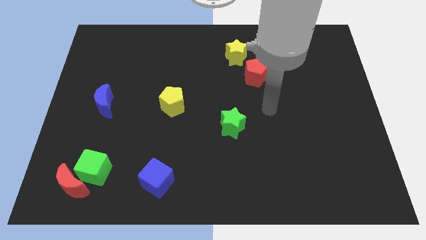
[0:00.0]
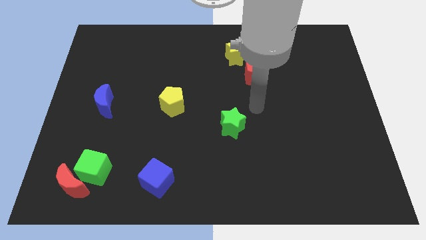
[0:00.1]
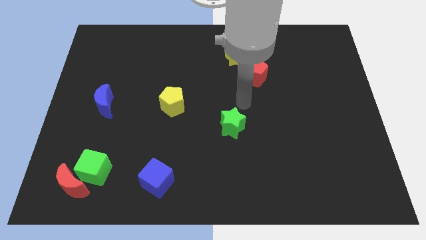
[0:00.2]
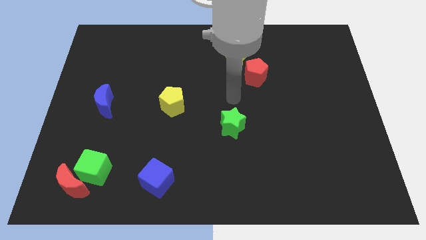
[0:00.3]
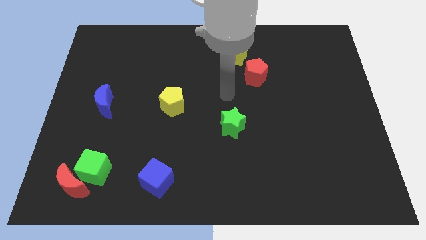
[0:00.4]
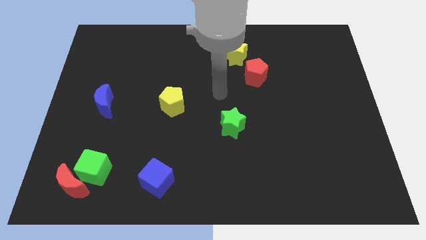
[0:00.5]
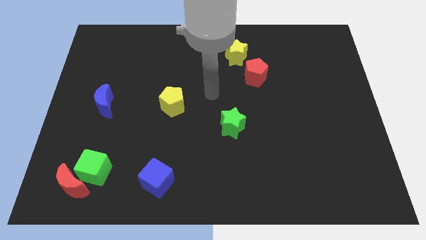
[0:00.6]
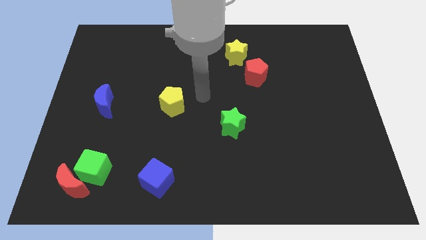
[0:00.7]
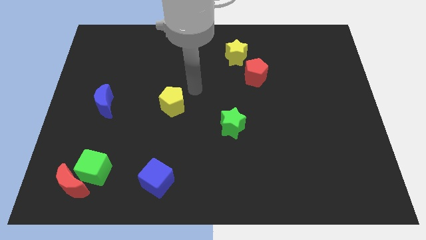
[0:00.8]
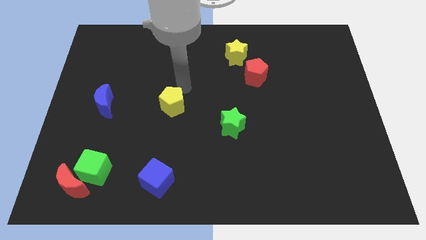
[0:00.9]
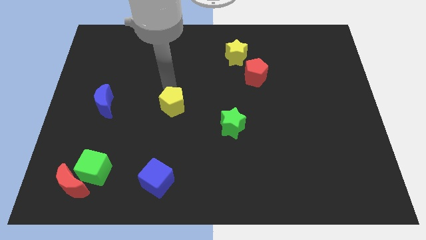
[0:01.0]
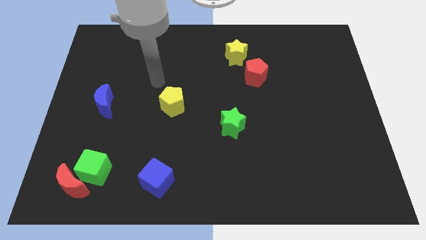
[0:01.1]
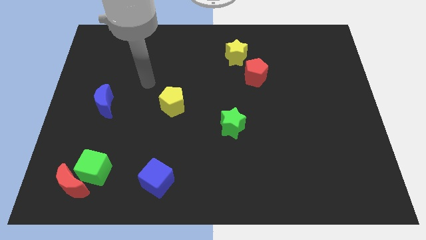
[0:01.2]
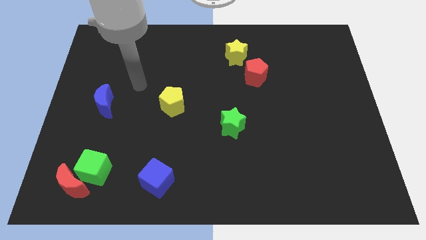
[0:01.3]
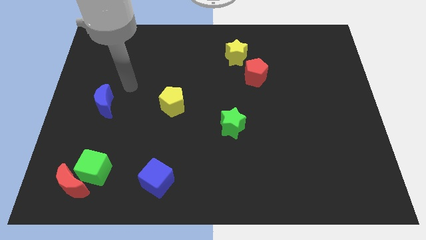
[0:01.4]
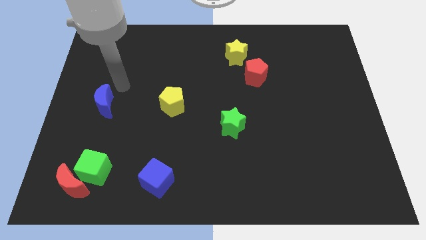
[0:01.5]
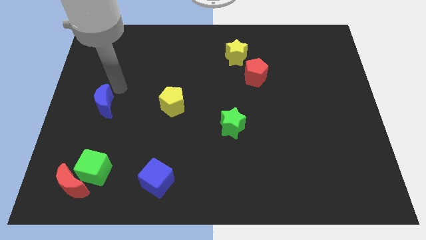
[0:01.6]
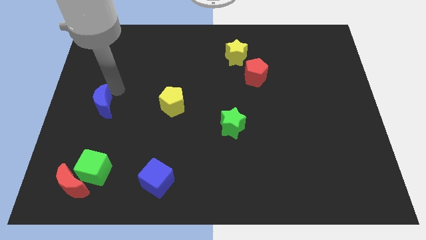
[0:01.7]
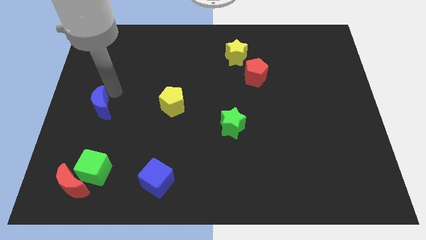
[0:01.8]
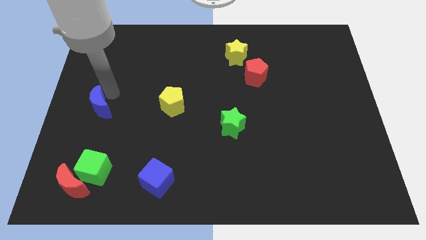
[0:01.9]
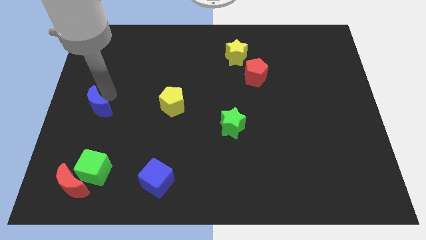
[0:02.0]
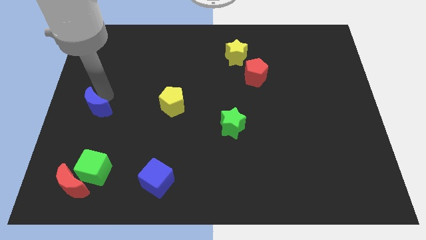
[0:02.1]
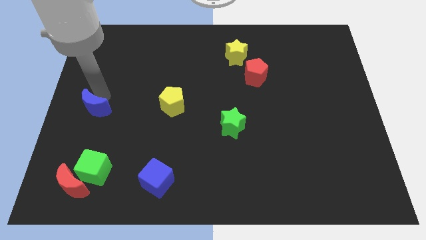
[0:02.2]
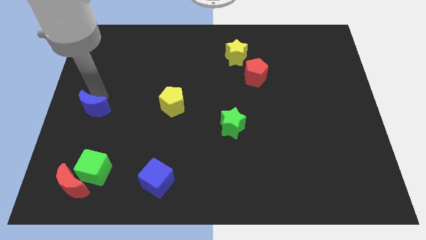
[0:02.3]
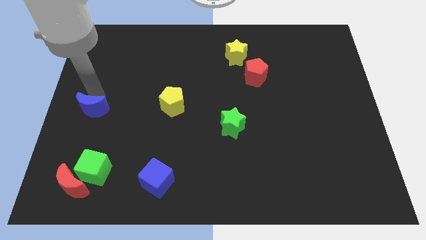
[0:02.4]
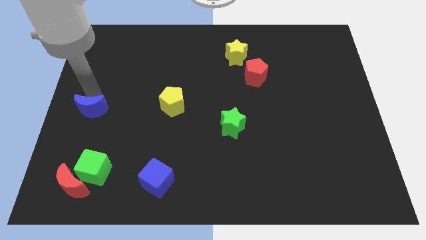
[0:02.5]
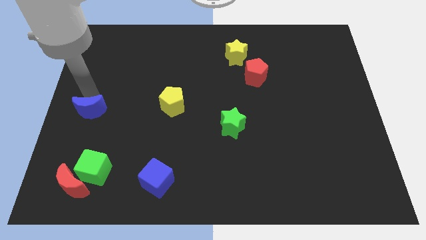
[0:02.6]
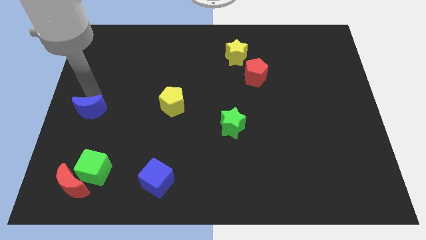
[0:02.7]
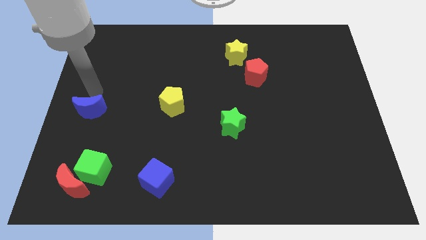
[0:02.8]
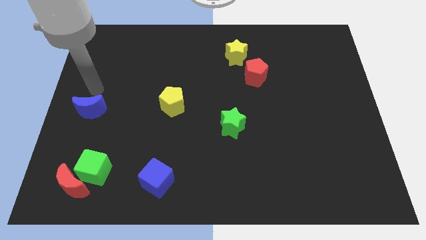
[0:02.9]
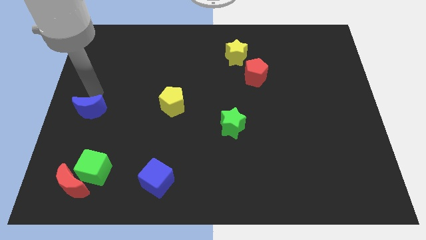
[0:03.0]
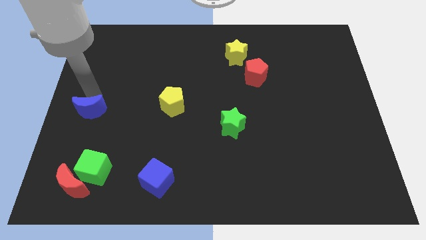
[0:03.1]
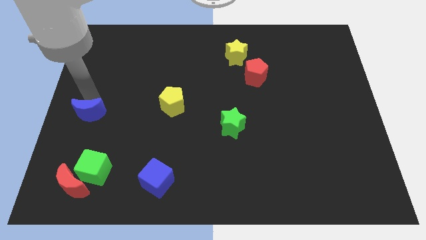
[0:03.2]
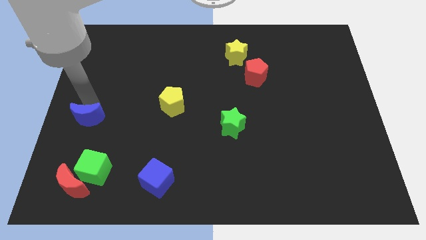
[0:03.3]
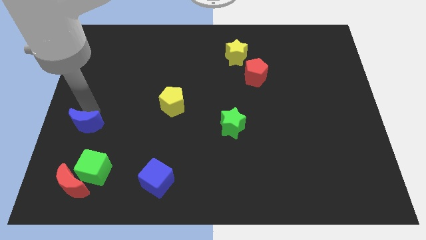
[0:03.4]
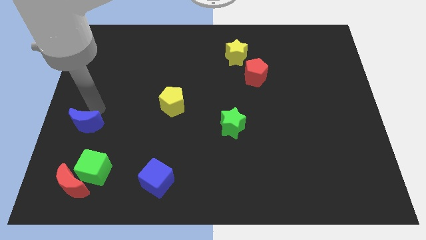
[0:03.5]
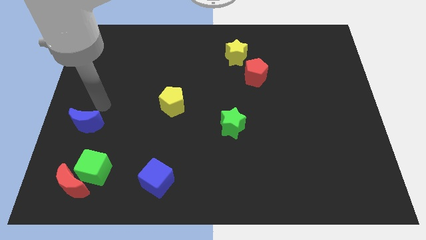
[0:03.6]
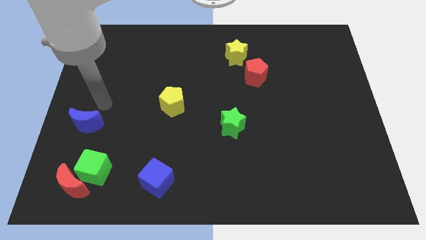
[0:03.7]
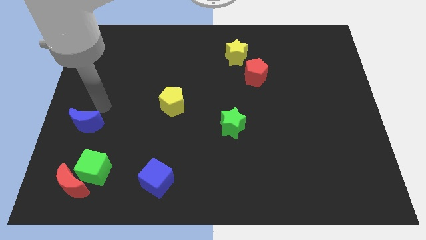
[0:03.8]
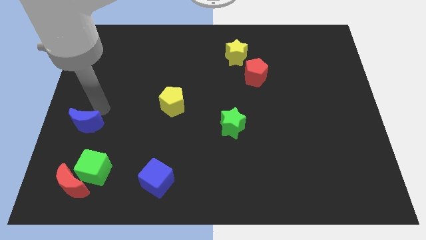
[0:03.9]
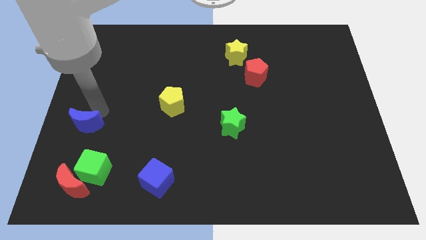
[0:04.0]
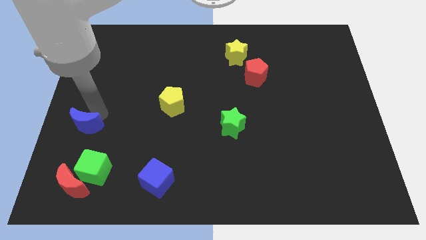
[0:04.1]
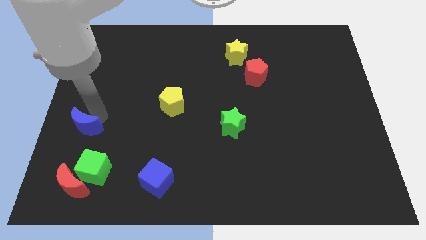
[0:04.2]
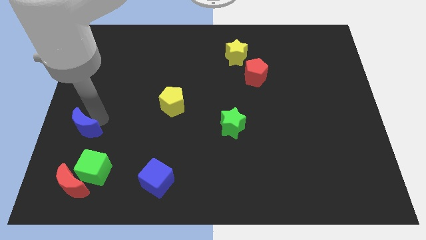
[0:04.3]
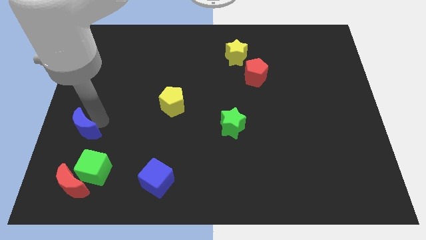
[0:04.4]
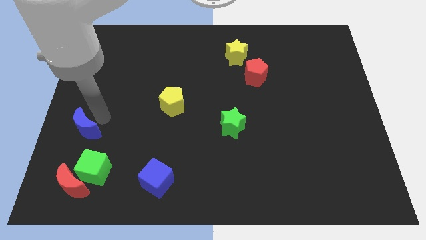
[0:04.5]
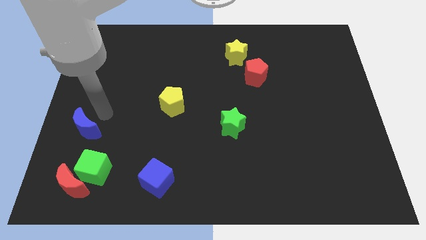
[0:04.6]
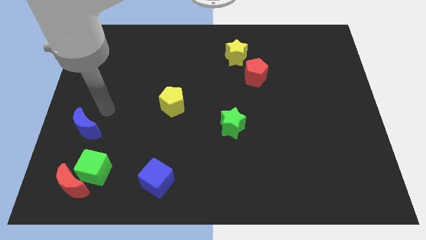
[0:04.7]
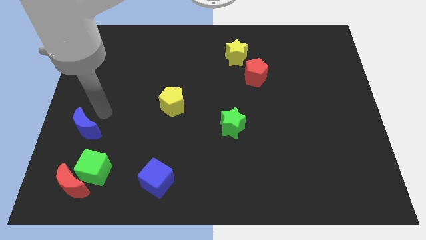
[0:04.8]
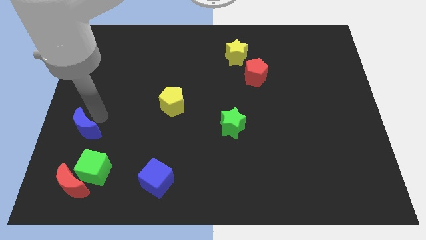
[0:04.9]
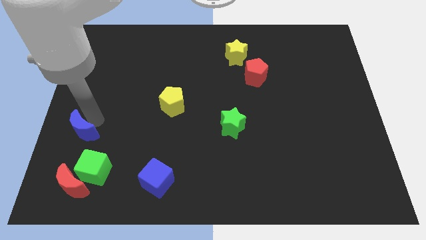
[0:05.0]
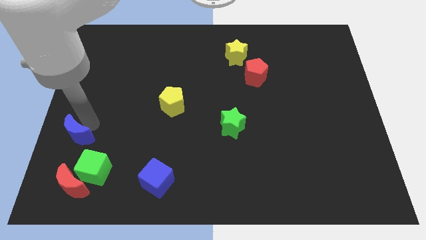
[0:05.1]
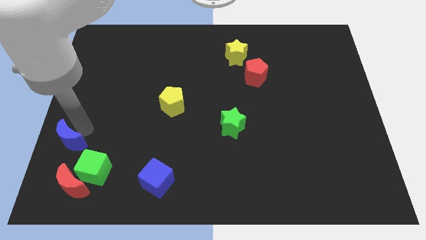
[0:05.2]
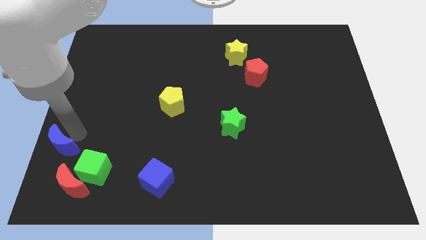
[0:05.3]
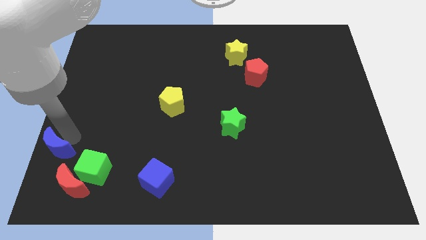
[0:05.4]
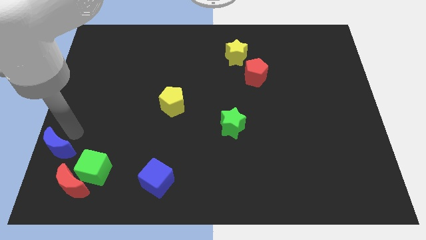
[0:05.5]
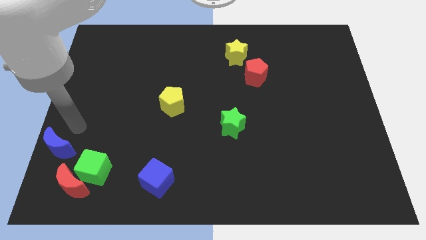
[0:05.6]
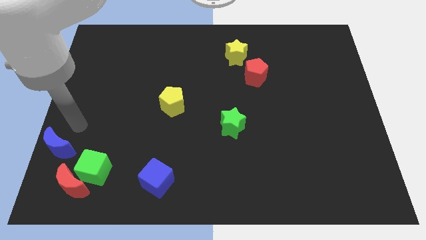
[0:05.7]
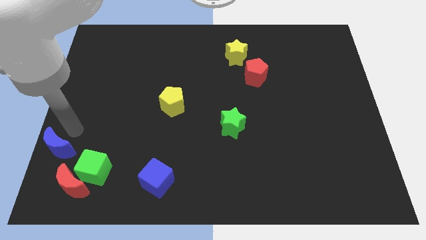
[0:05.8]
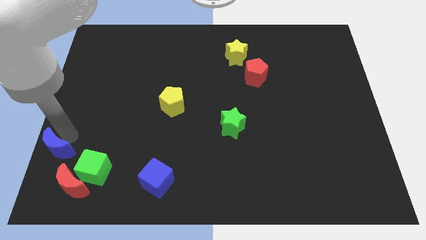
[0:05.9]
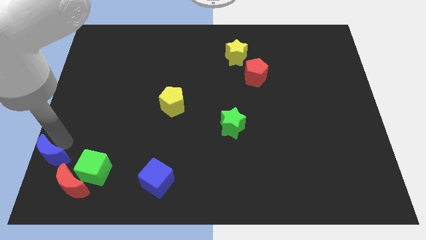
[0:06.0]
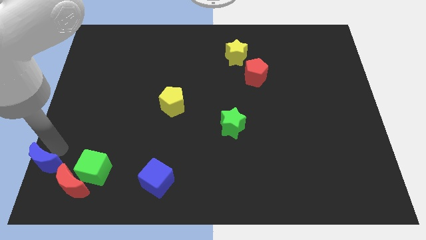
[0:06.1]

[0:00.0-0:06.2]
push the blue moon to the bottom left corner

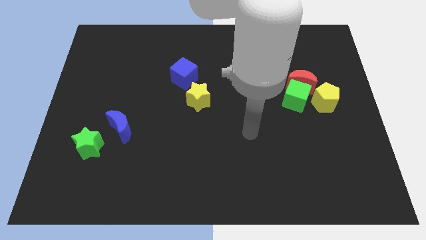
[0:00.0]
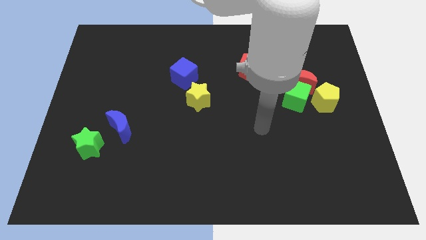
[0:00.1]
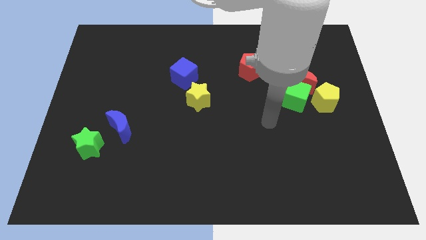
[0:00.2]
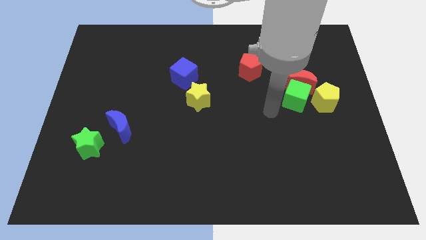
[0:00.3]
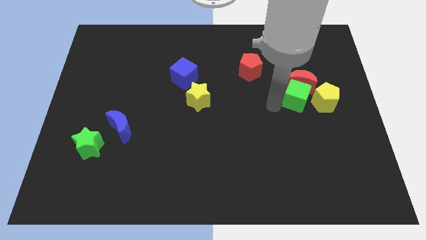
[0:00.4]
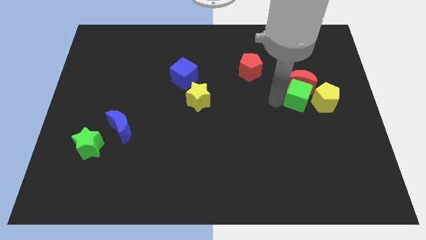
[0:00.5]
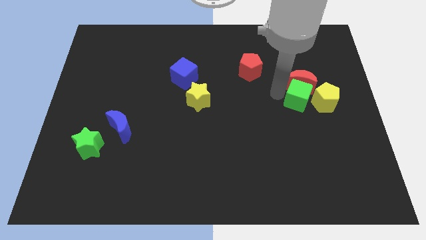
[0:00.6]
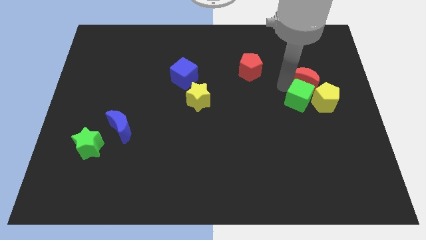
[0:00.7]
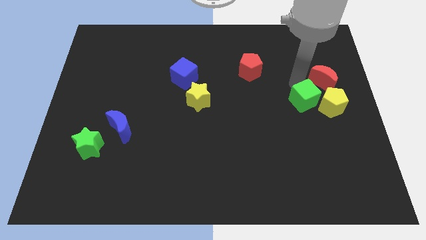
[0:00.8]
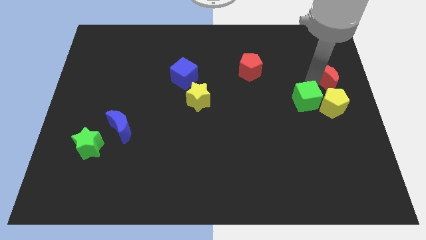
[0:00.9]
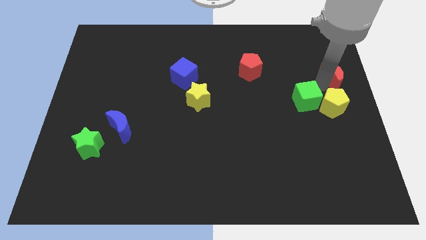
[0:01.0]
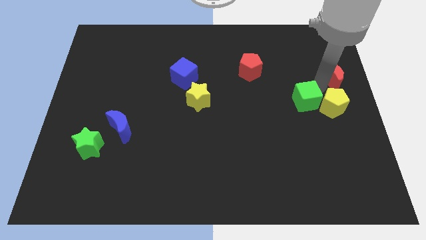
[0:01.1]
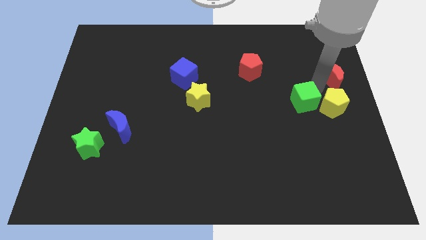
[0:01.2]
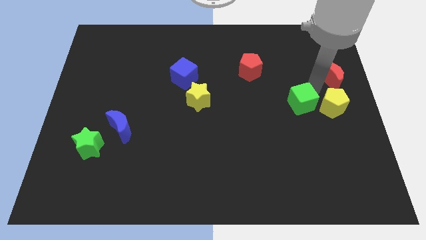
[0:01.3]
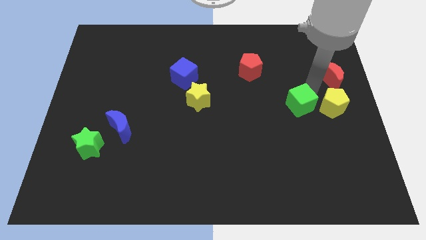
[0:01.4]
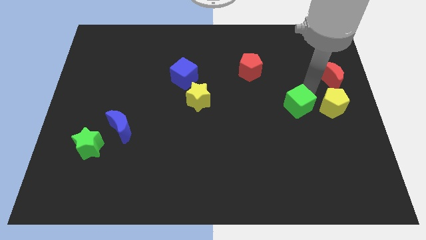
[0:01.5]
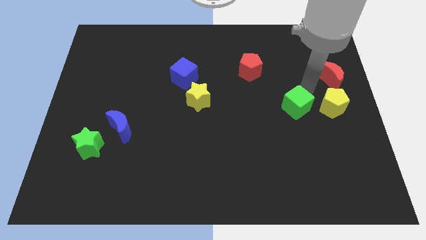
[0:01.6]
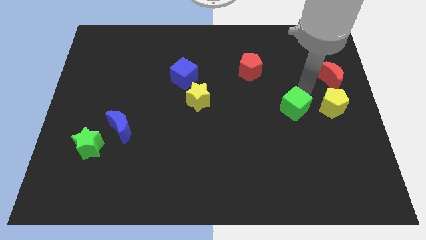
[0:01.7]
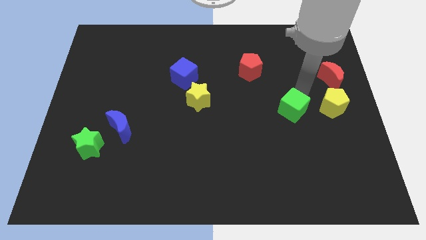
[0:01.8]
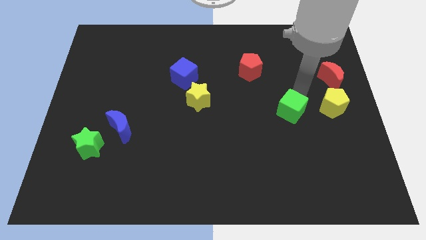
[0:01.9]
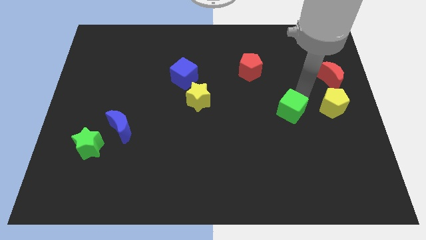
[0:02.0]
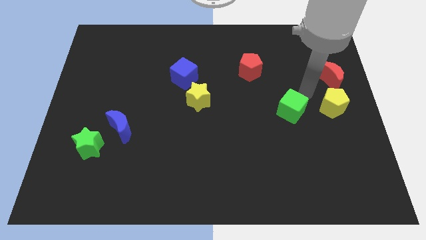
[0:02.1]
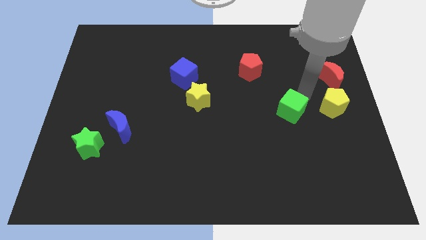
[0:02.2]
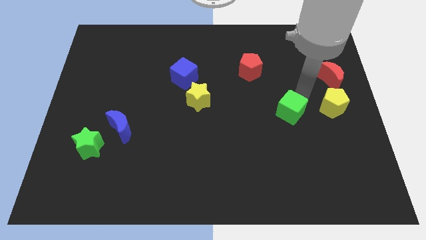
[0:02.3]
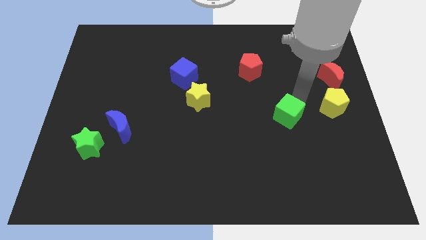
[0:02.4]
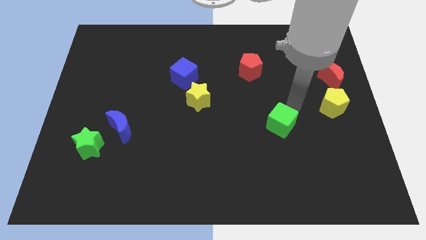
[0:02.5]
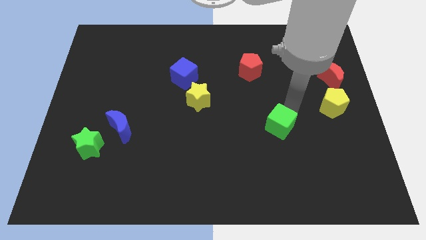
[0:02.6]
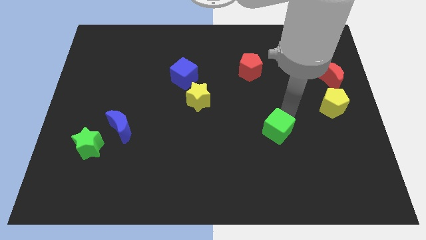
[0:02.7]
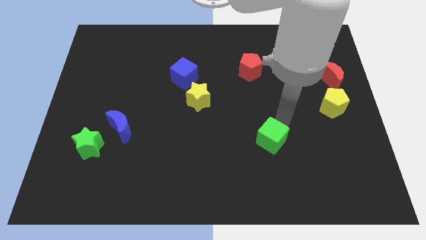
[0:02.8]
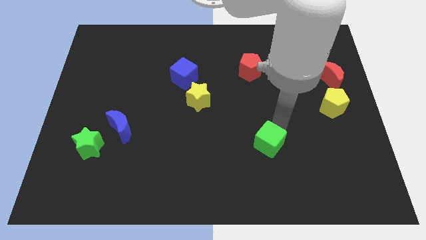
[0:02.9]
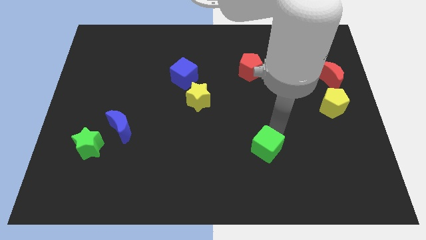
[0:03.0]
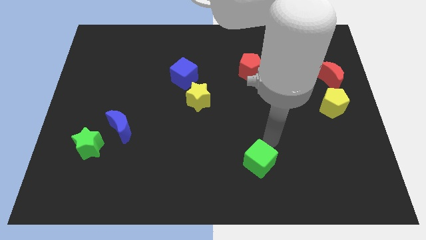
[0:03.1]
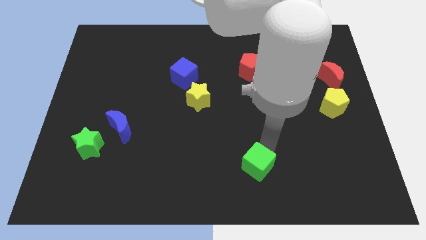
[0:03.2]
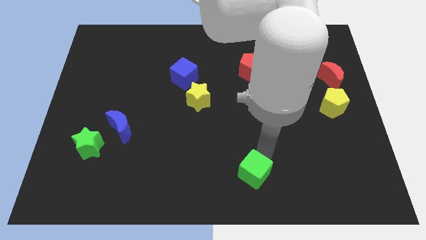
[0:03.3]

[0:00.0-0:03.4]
put the green cube to the bottom
